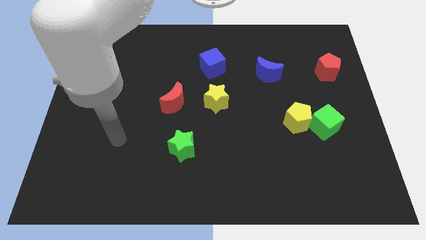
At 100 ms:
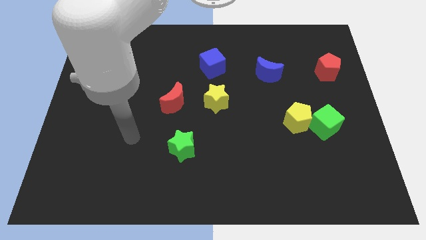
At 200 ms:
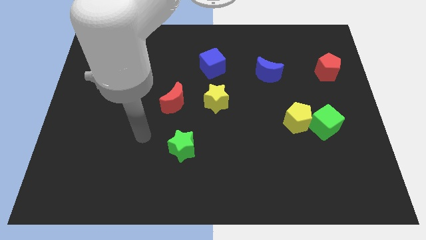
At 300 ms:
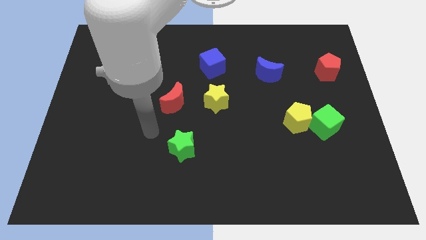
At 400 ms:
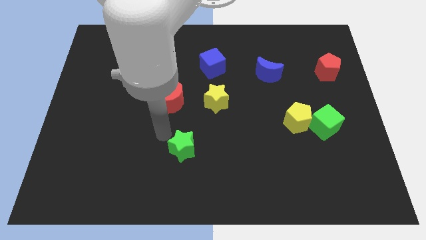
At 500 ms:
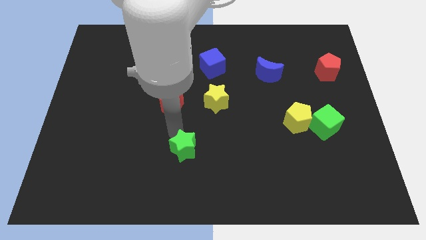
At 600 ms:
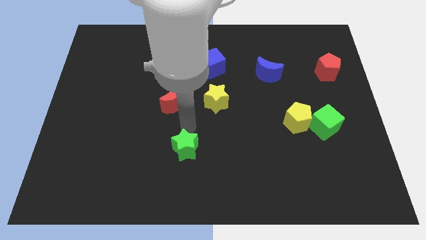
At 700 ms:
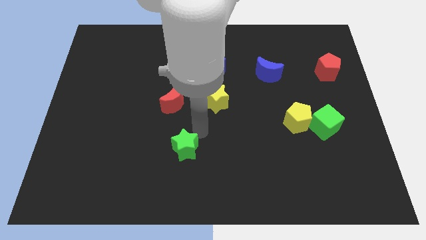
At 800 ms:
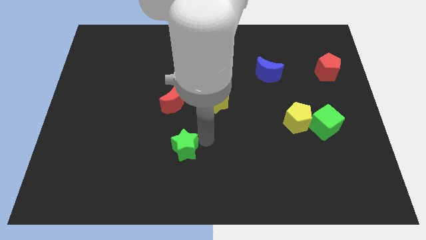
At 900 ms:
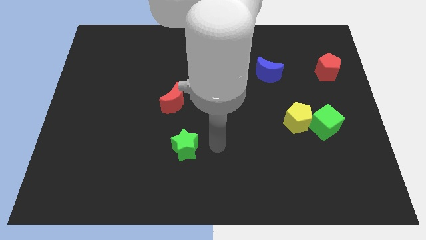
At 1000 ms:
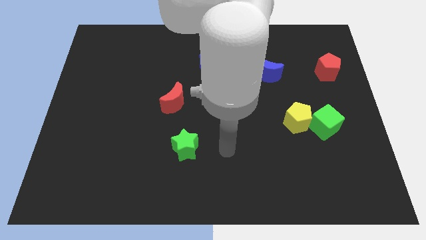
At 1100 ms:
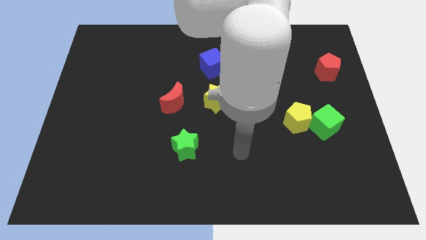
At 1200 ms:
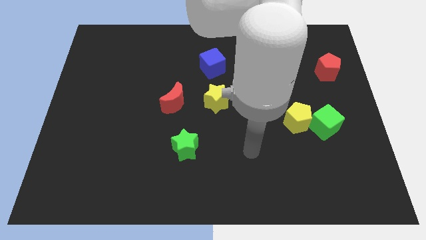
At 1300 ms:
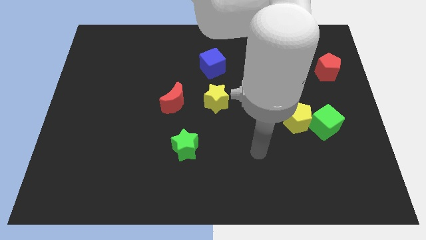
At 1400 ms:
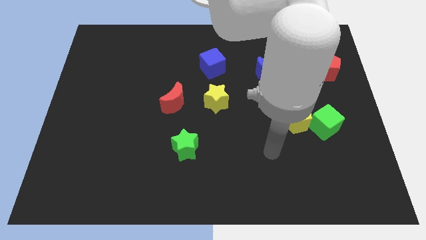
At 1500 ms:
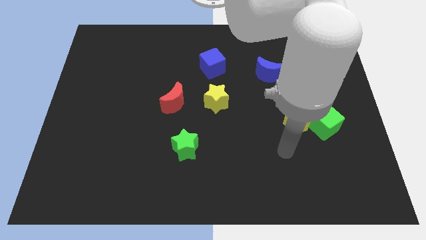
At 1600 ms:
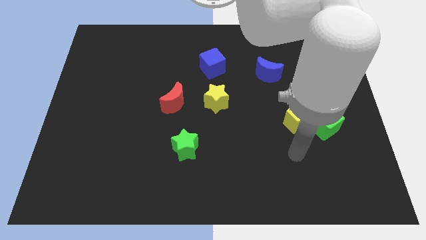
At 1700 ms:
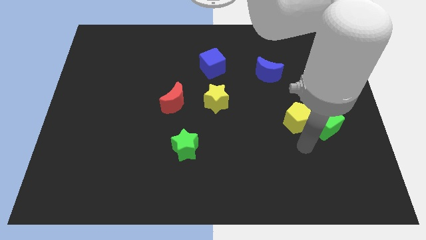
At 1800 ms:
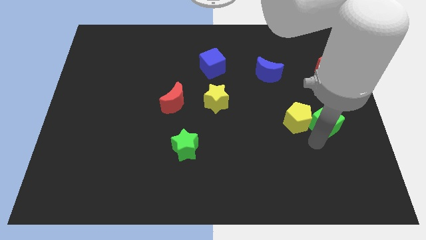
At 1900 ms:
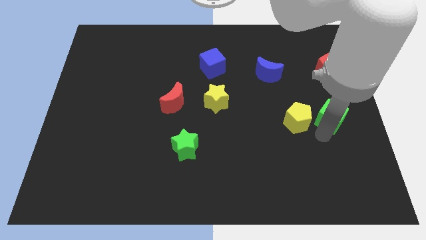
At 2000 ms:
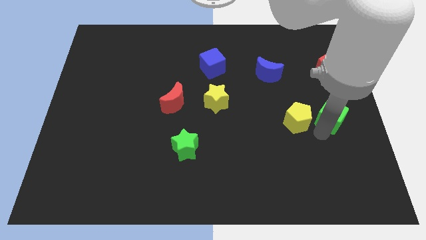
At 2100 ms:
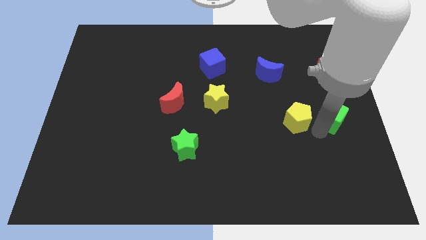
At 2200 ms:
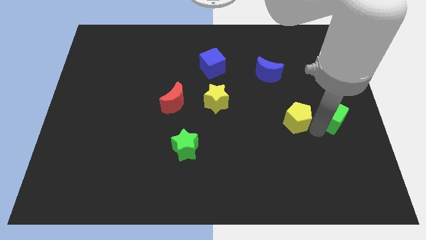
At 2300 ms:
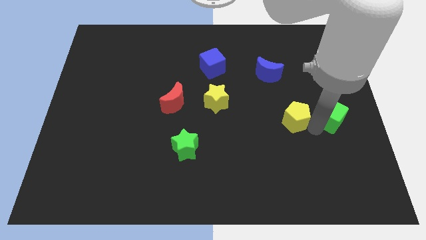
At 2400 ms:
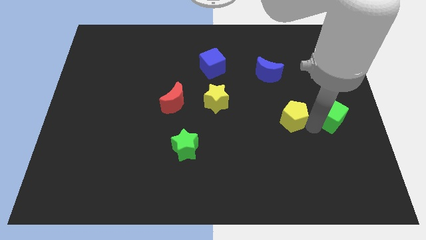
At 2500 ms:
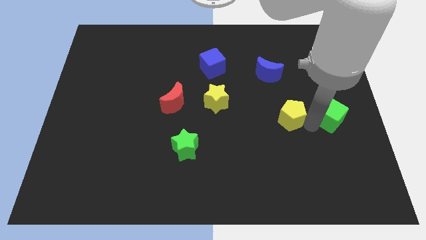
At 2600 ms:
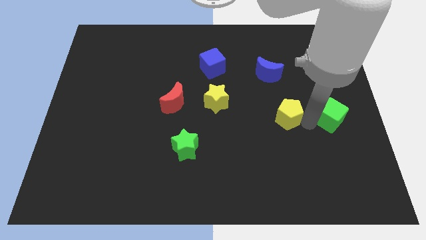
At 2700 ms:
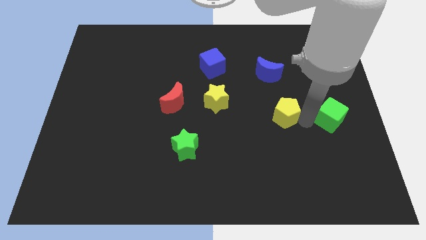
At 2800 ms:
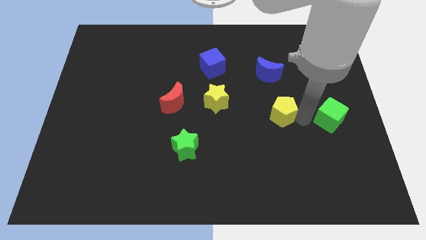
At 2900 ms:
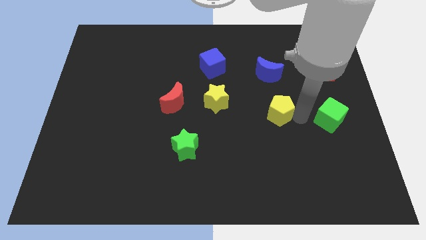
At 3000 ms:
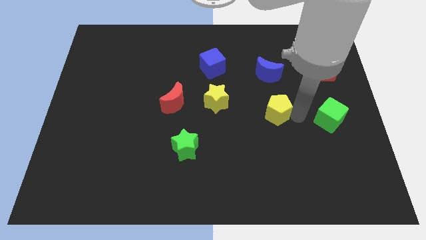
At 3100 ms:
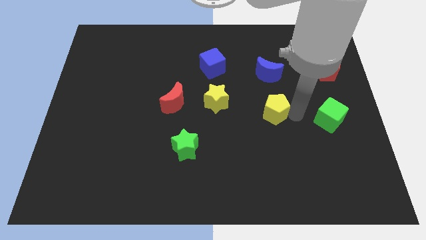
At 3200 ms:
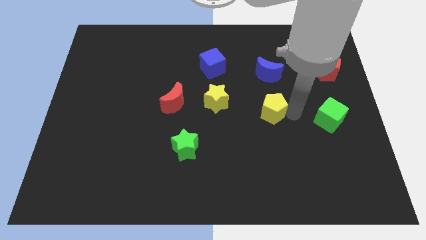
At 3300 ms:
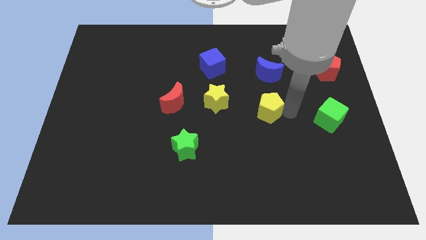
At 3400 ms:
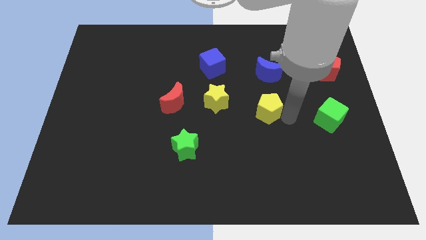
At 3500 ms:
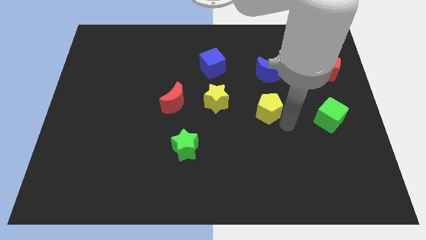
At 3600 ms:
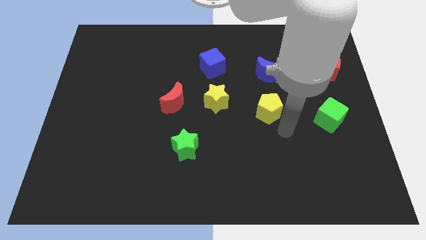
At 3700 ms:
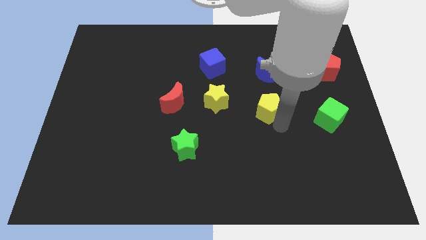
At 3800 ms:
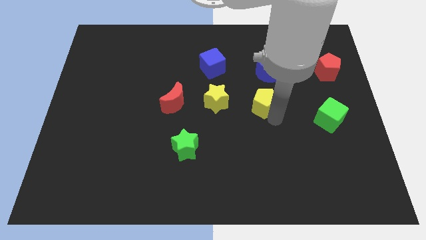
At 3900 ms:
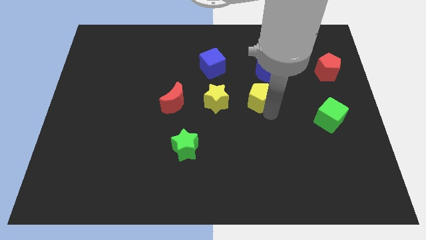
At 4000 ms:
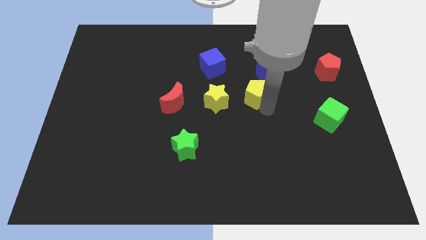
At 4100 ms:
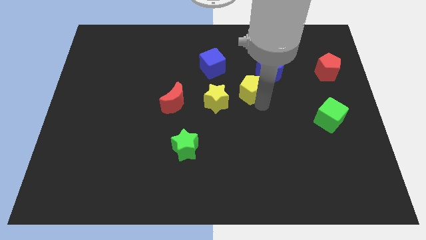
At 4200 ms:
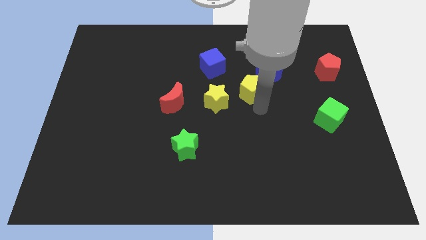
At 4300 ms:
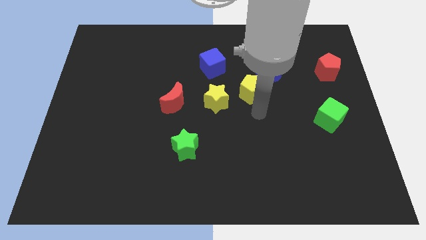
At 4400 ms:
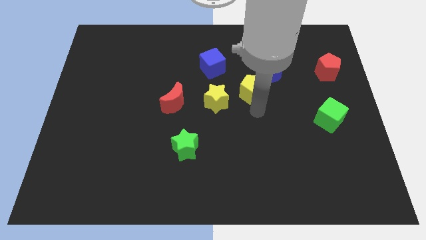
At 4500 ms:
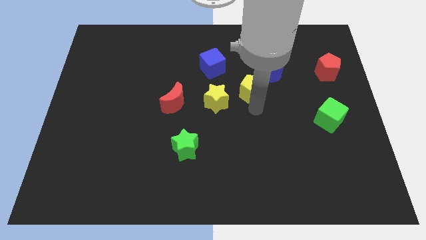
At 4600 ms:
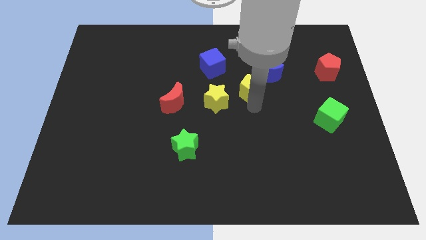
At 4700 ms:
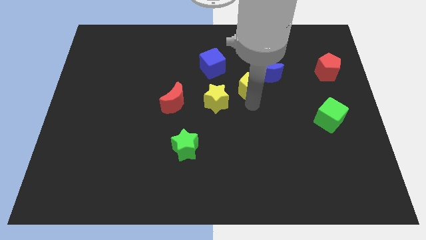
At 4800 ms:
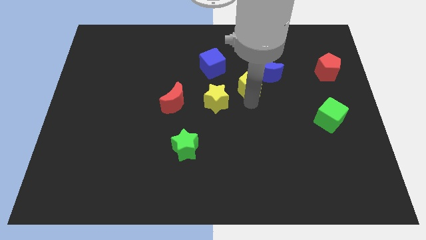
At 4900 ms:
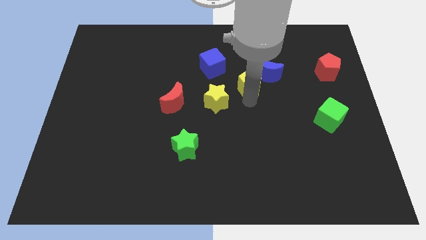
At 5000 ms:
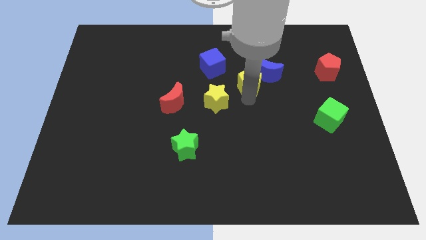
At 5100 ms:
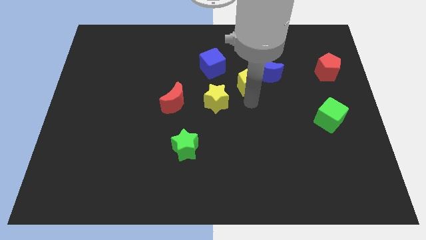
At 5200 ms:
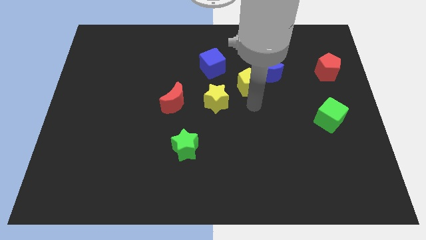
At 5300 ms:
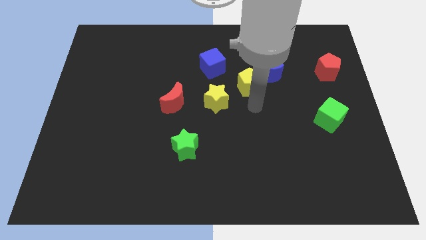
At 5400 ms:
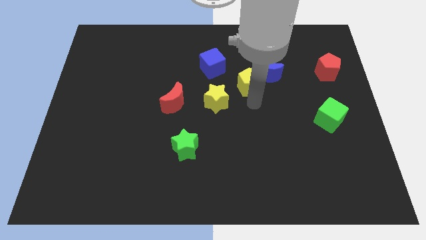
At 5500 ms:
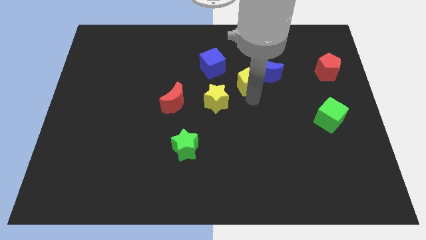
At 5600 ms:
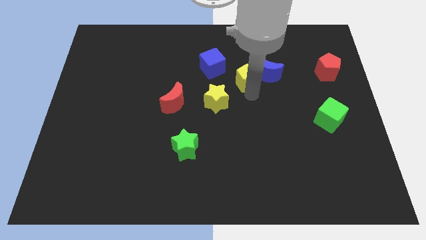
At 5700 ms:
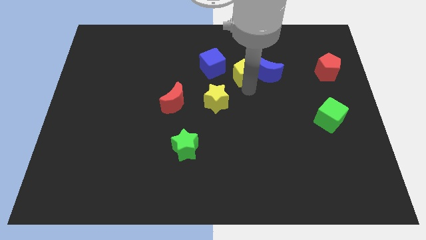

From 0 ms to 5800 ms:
move the yellow pentagon to the right of the blue cube

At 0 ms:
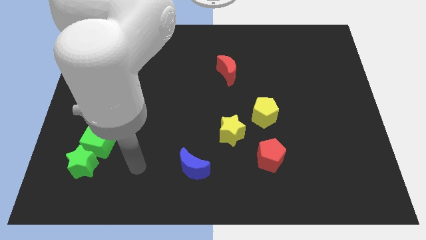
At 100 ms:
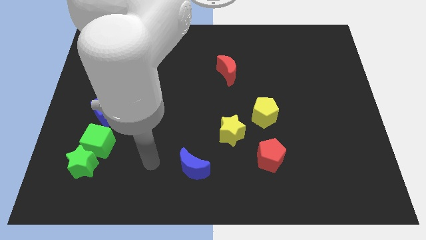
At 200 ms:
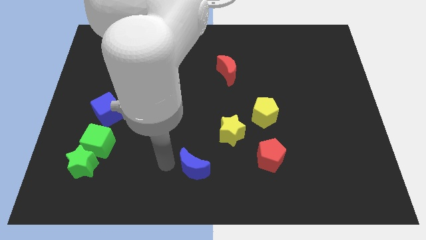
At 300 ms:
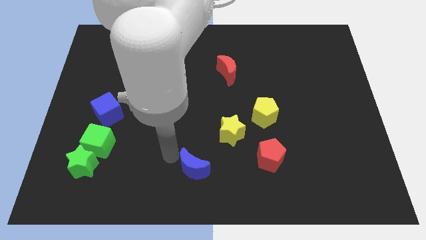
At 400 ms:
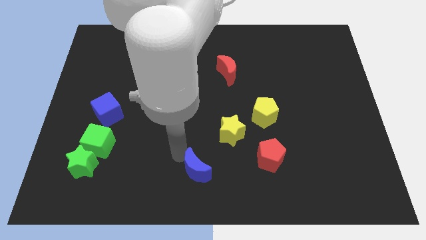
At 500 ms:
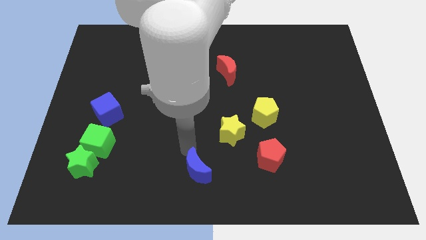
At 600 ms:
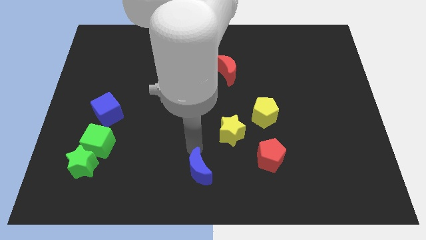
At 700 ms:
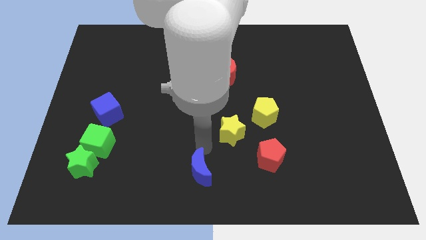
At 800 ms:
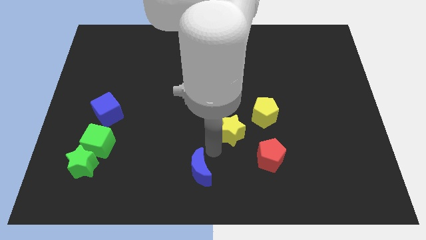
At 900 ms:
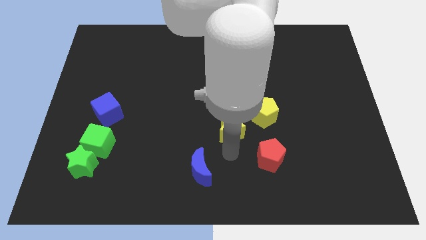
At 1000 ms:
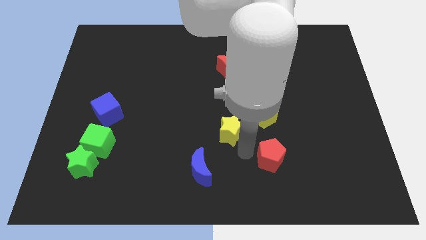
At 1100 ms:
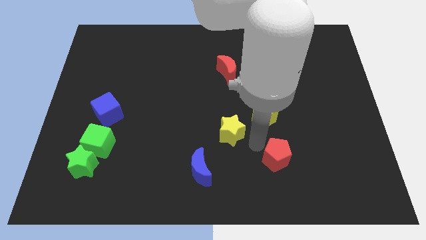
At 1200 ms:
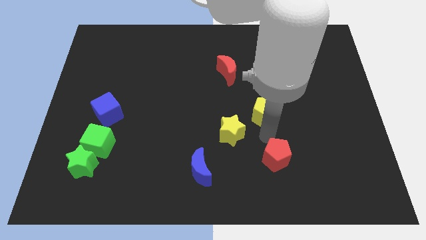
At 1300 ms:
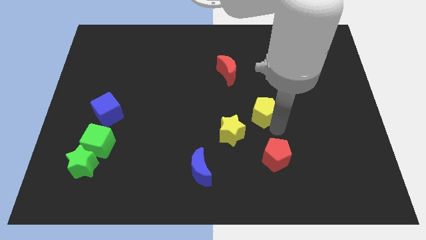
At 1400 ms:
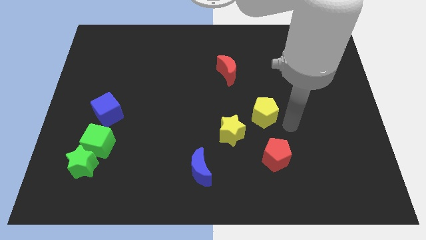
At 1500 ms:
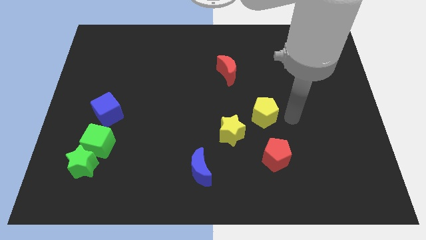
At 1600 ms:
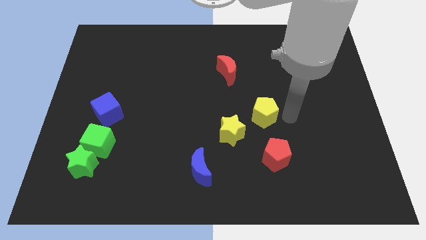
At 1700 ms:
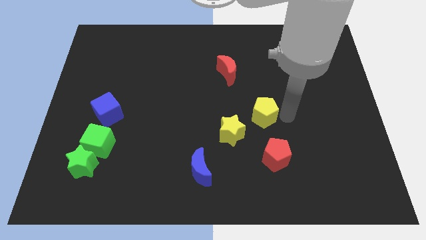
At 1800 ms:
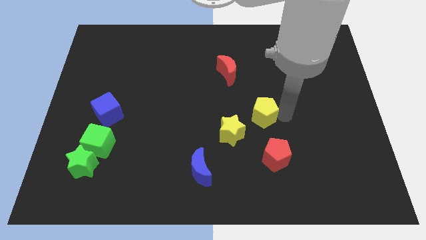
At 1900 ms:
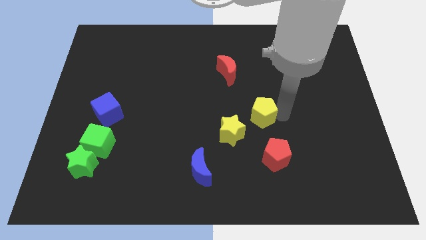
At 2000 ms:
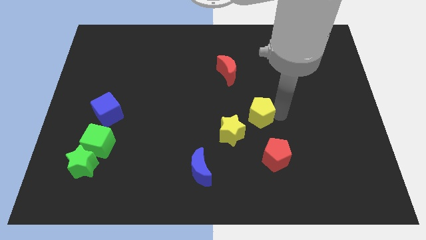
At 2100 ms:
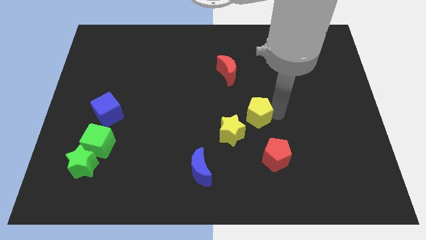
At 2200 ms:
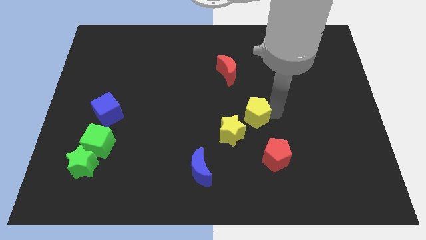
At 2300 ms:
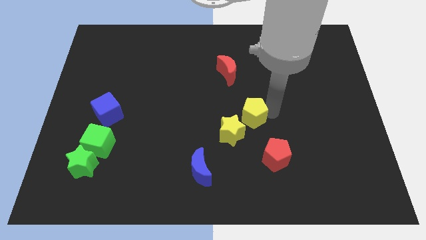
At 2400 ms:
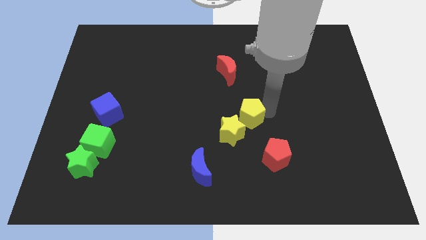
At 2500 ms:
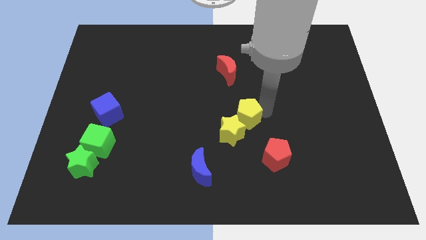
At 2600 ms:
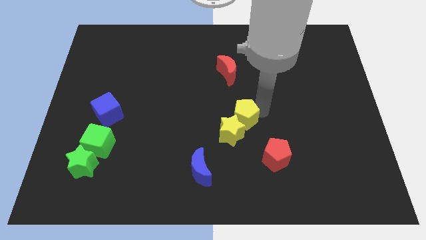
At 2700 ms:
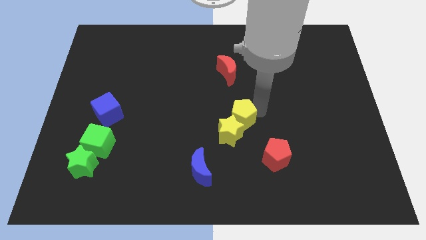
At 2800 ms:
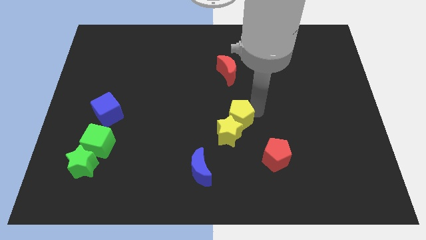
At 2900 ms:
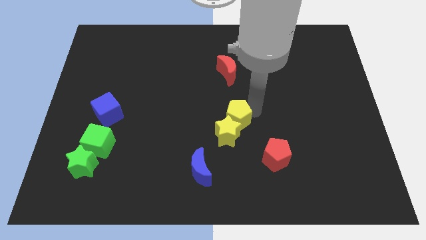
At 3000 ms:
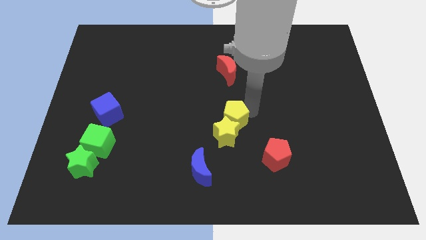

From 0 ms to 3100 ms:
move the yellow pentagon to the top left of the yellow star
